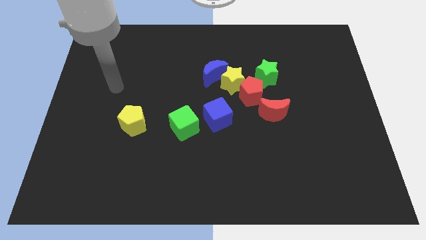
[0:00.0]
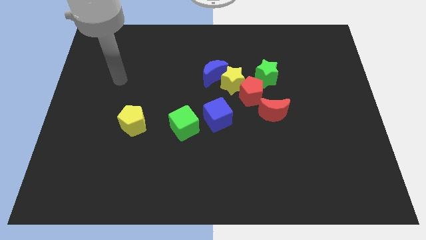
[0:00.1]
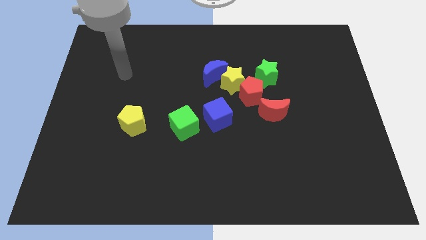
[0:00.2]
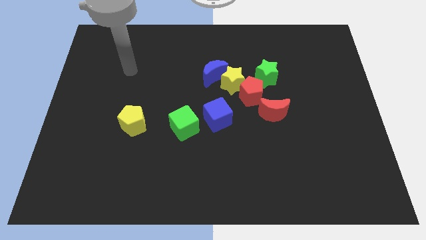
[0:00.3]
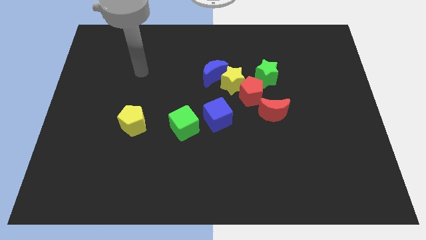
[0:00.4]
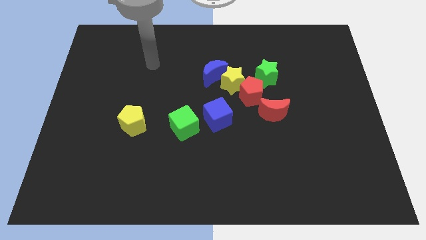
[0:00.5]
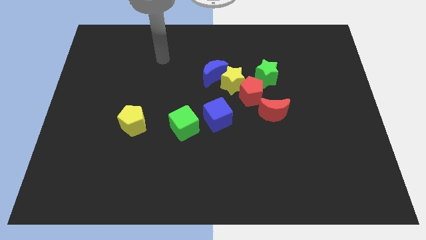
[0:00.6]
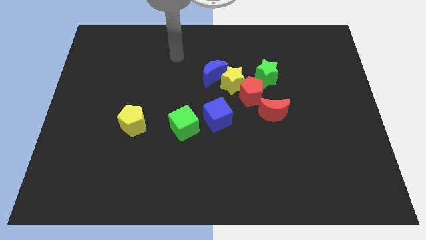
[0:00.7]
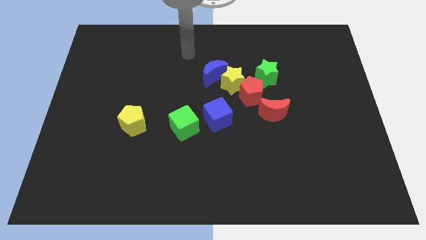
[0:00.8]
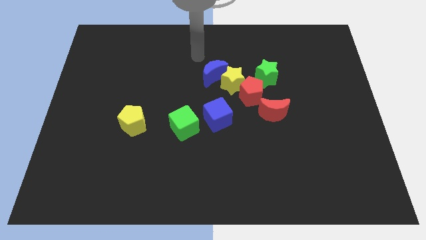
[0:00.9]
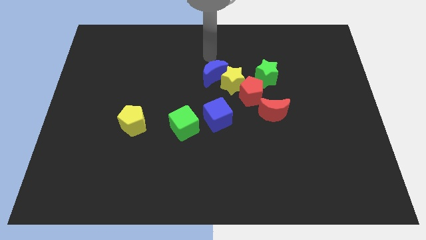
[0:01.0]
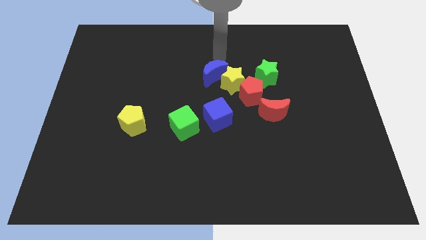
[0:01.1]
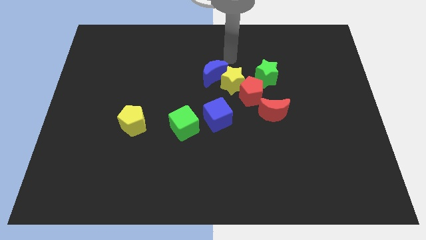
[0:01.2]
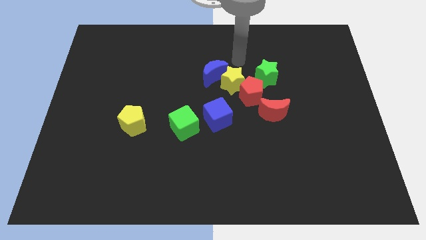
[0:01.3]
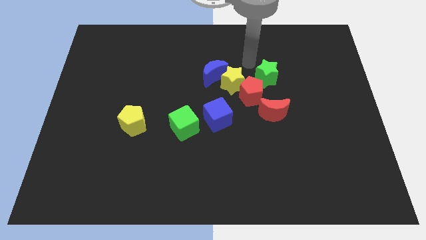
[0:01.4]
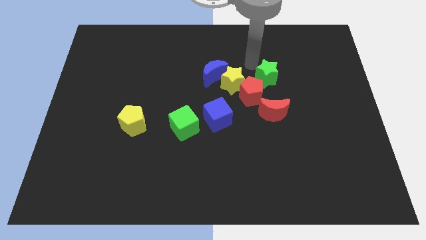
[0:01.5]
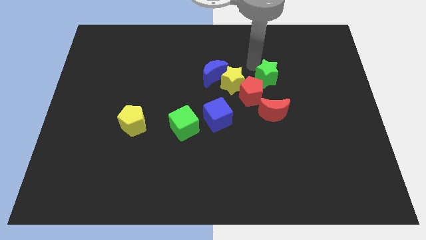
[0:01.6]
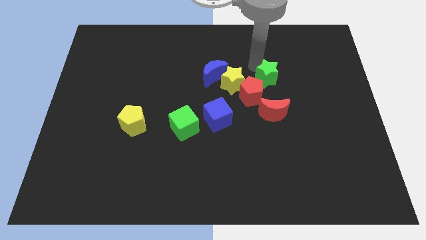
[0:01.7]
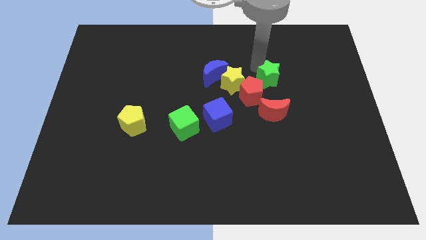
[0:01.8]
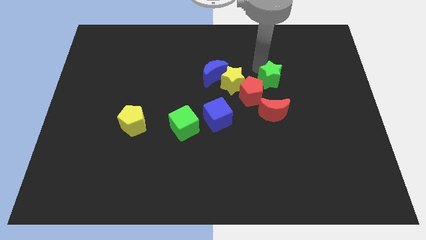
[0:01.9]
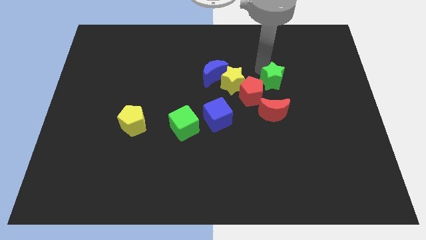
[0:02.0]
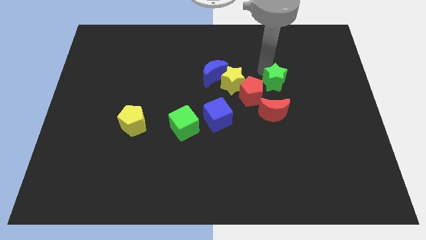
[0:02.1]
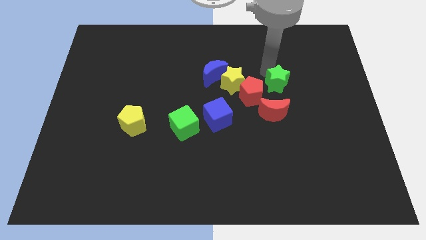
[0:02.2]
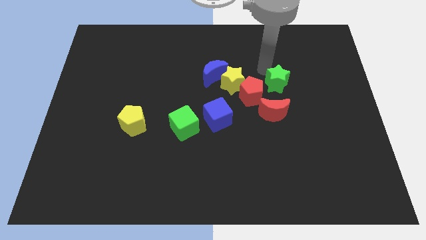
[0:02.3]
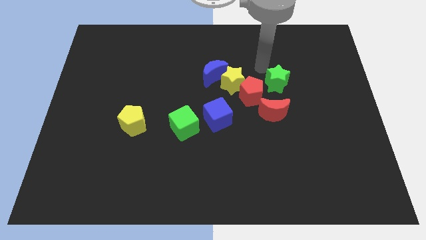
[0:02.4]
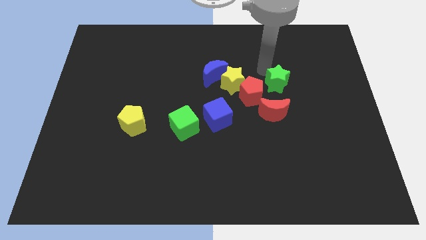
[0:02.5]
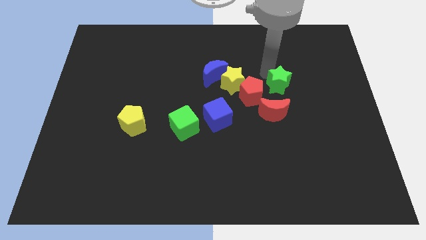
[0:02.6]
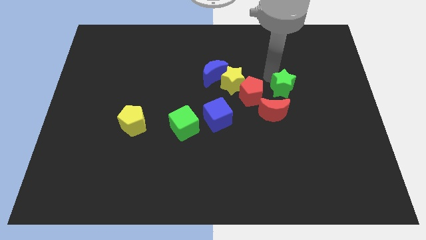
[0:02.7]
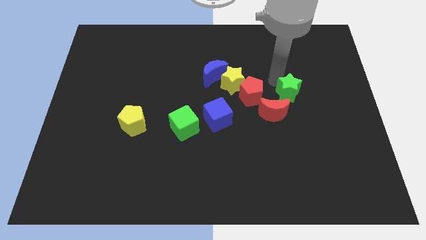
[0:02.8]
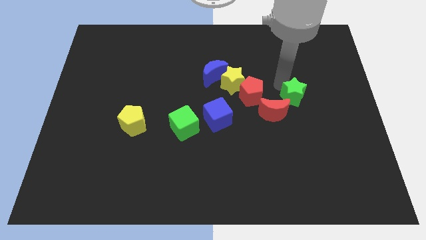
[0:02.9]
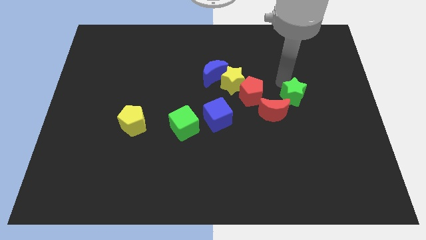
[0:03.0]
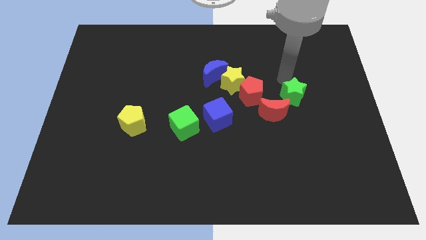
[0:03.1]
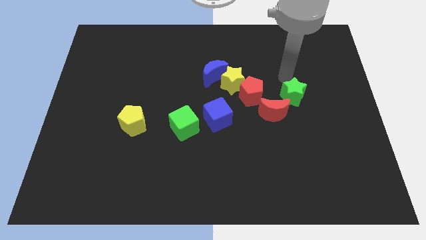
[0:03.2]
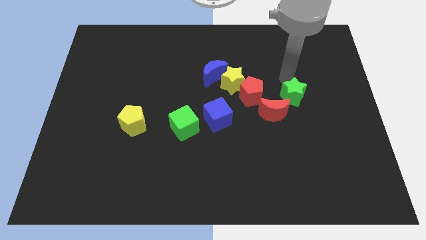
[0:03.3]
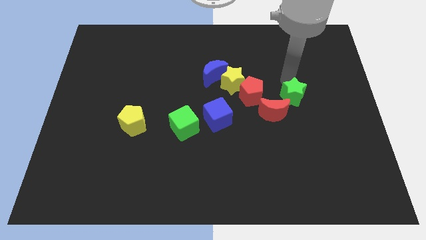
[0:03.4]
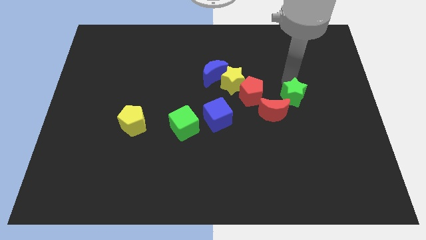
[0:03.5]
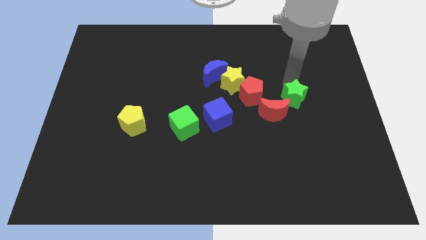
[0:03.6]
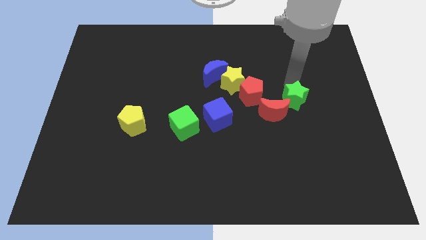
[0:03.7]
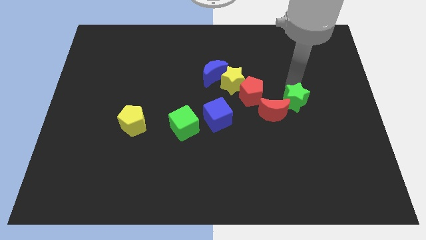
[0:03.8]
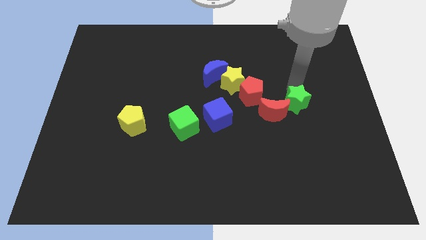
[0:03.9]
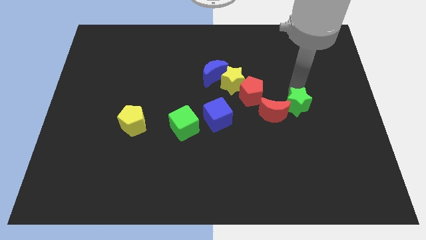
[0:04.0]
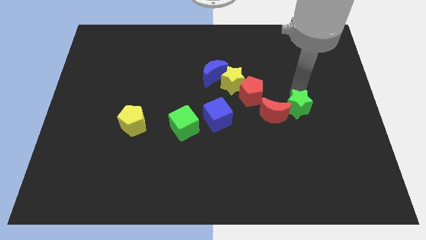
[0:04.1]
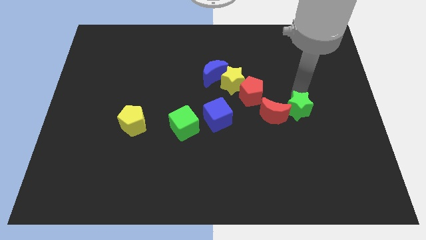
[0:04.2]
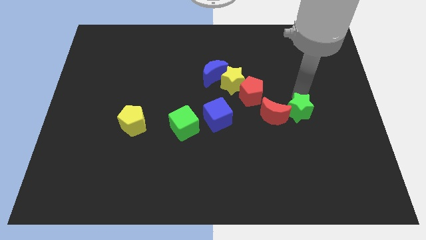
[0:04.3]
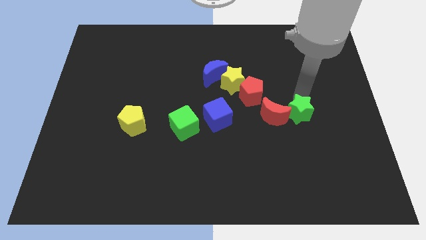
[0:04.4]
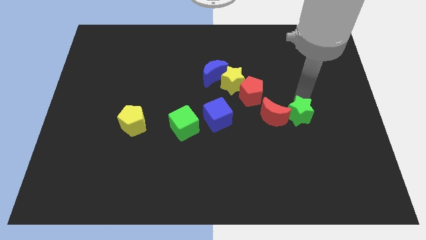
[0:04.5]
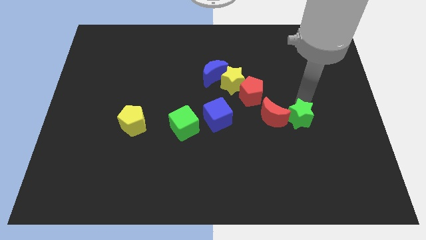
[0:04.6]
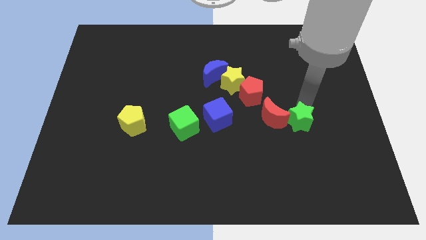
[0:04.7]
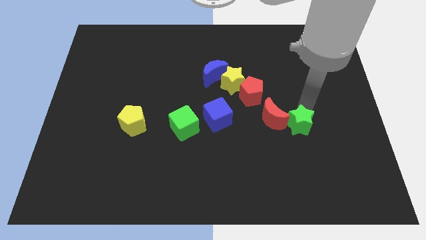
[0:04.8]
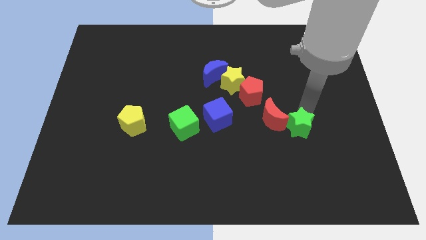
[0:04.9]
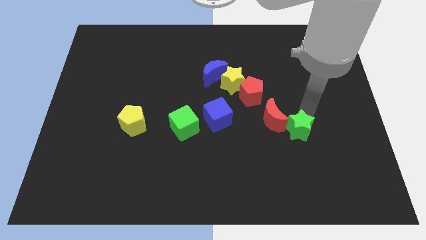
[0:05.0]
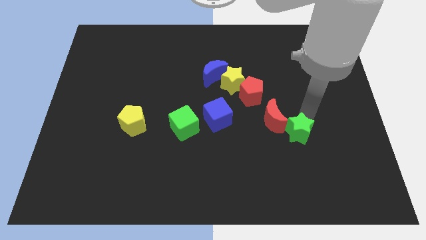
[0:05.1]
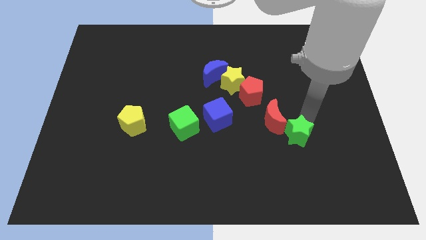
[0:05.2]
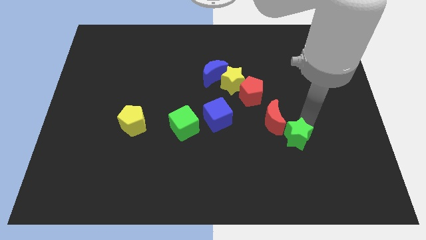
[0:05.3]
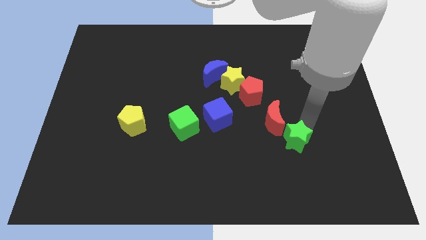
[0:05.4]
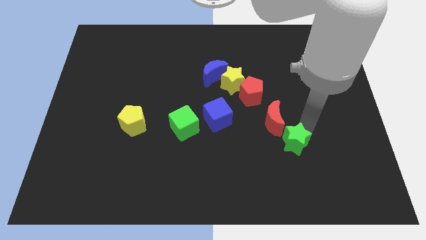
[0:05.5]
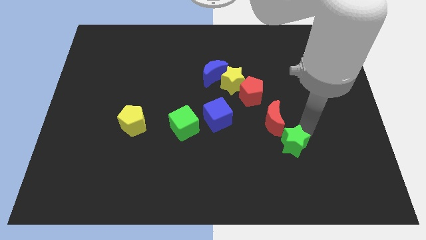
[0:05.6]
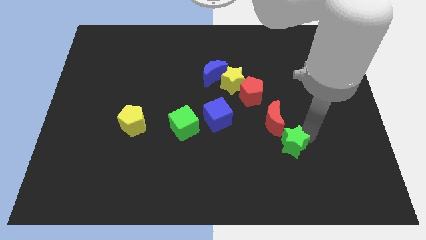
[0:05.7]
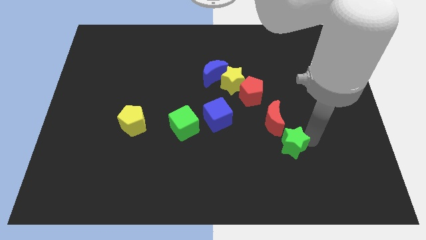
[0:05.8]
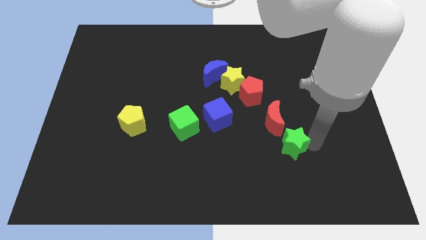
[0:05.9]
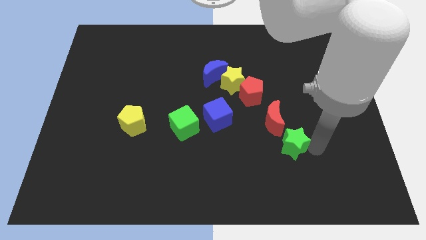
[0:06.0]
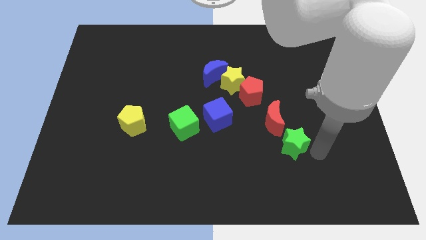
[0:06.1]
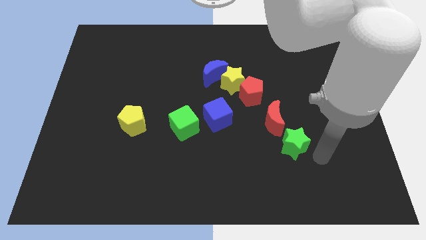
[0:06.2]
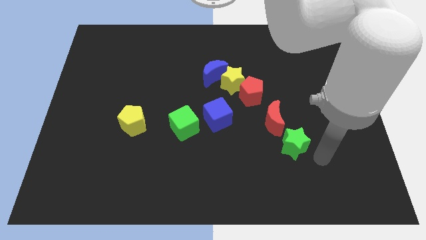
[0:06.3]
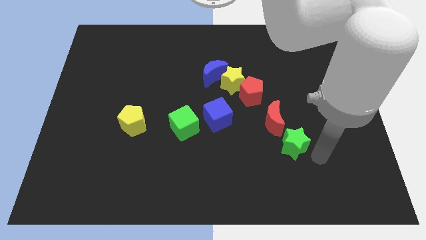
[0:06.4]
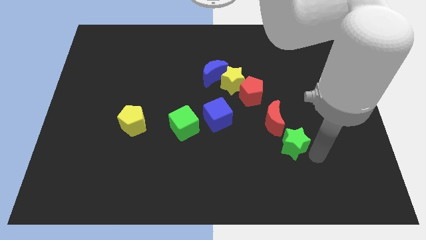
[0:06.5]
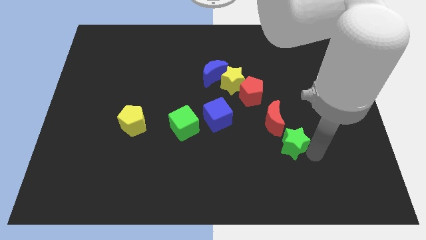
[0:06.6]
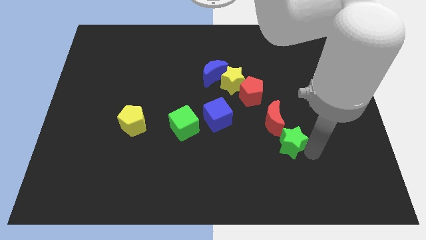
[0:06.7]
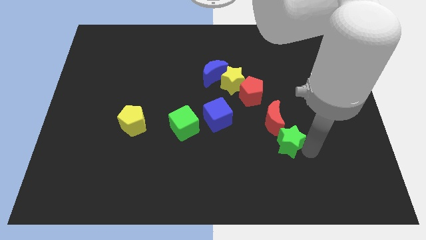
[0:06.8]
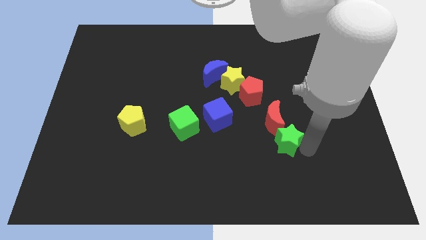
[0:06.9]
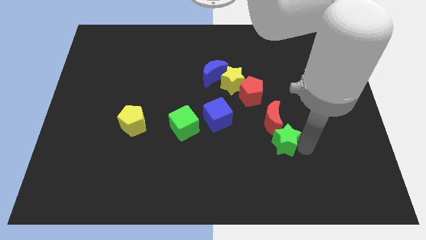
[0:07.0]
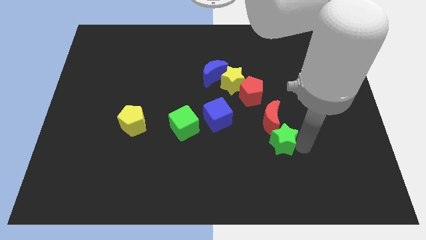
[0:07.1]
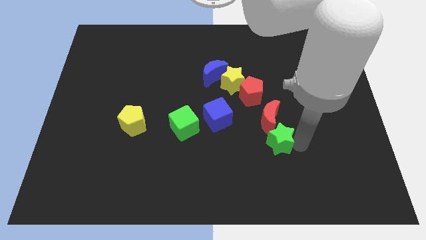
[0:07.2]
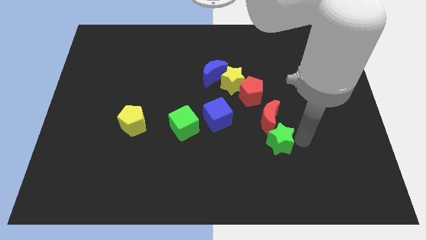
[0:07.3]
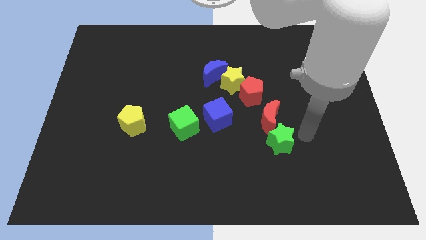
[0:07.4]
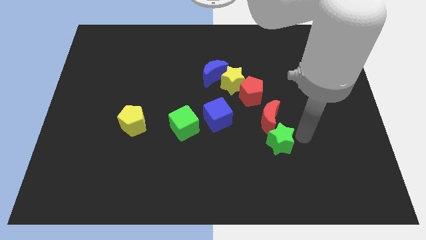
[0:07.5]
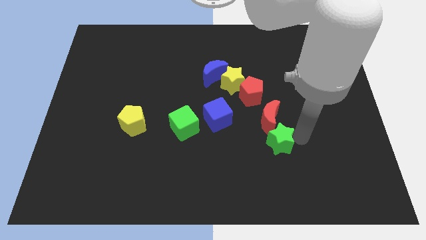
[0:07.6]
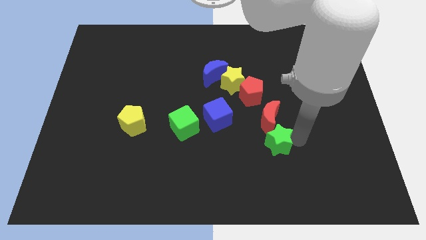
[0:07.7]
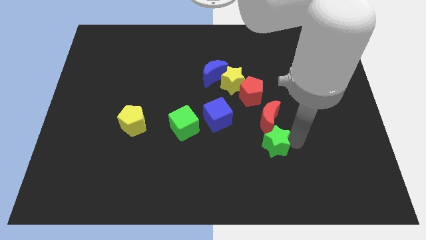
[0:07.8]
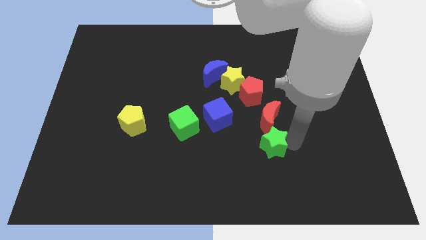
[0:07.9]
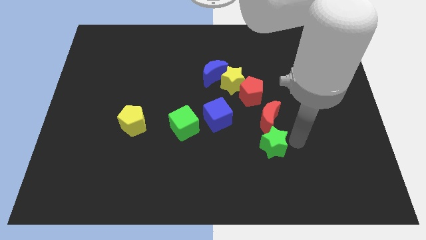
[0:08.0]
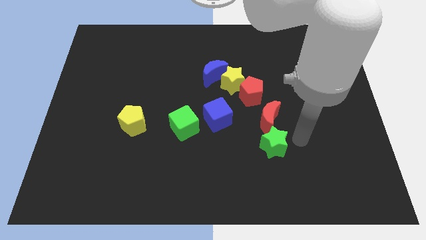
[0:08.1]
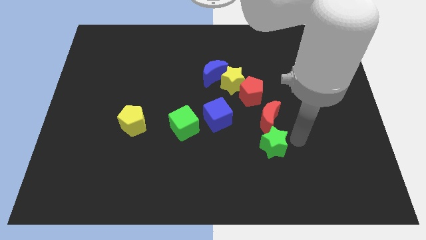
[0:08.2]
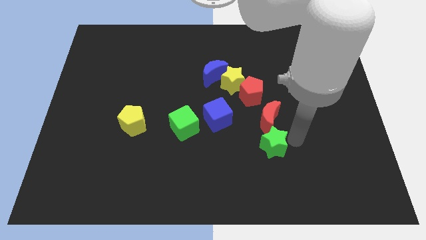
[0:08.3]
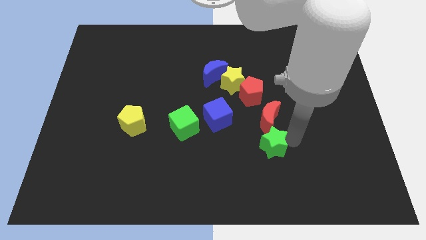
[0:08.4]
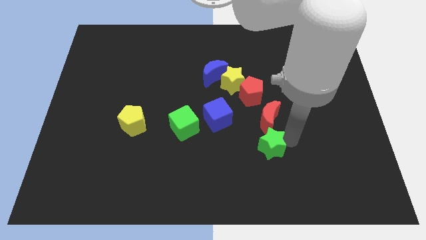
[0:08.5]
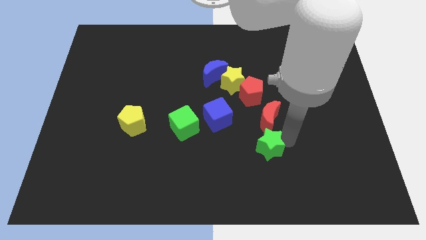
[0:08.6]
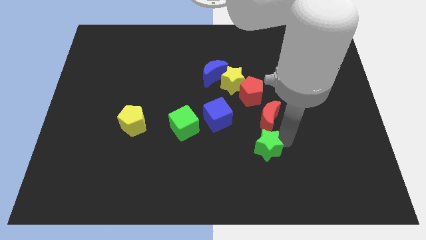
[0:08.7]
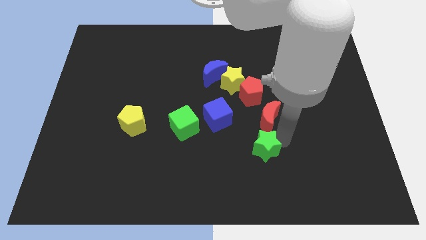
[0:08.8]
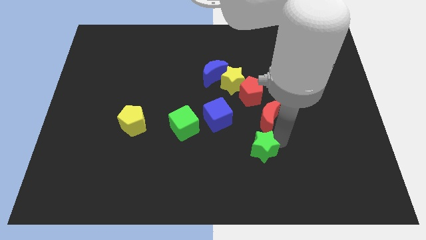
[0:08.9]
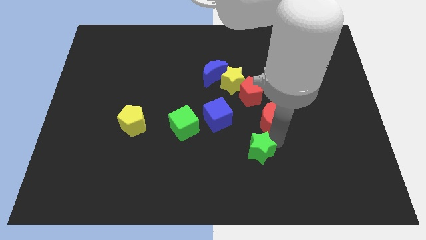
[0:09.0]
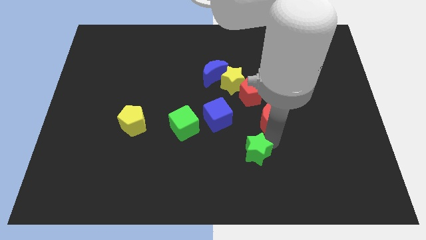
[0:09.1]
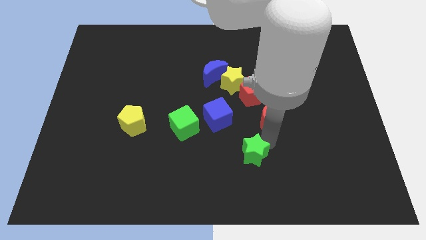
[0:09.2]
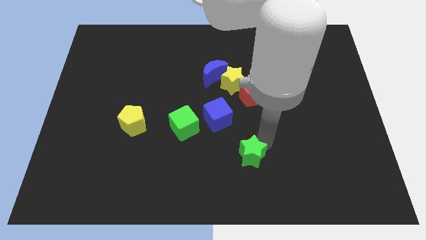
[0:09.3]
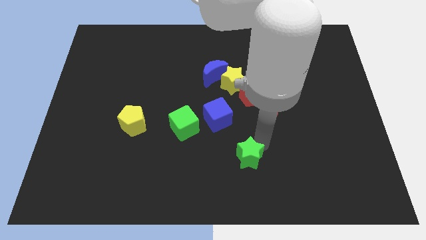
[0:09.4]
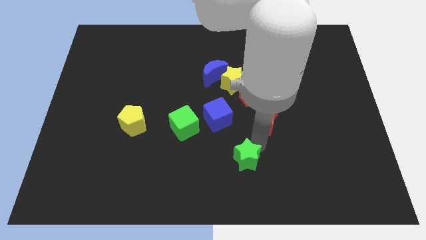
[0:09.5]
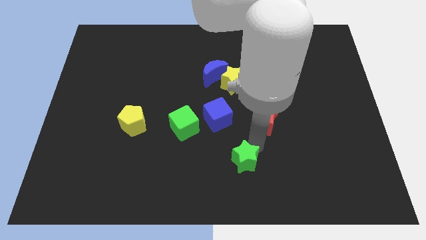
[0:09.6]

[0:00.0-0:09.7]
put the green star to the bottom side
